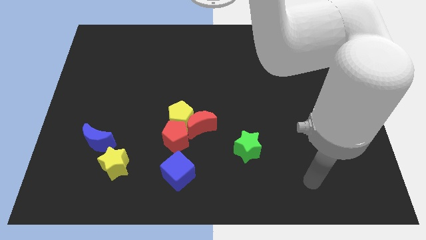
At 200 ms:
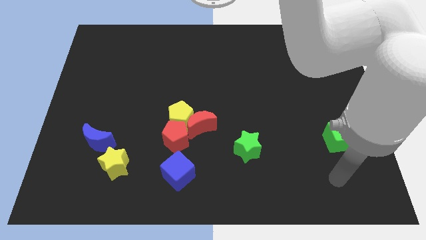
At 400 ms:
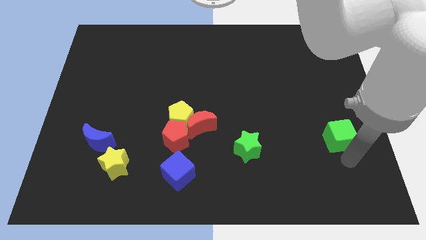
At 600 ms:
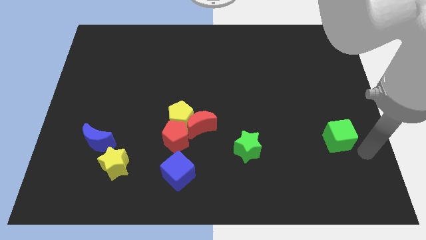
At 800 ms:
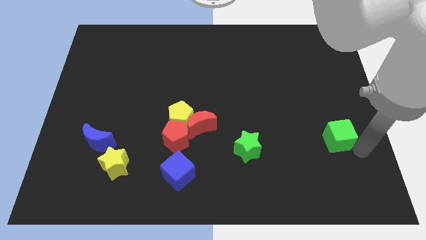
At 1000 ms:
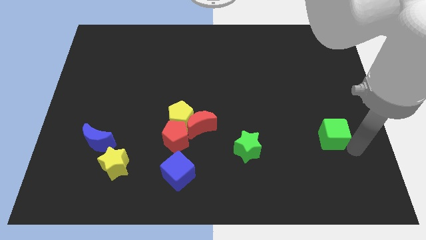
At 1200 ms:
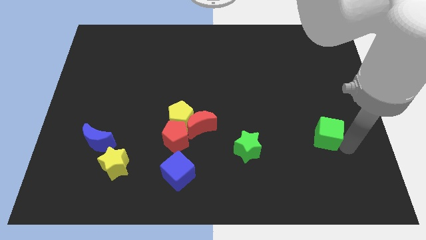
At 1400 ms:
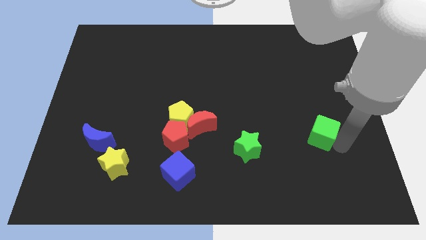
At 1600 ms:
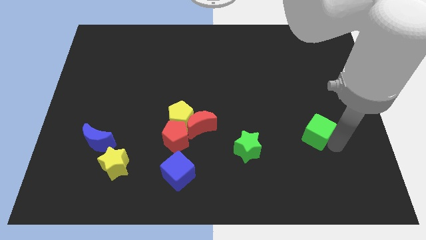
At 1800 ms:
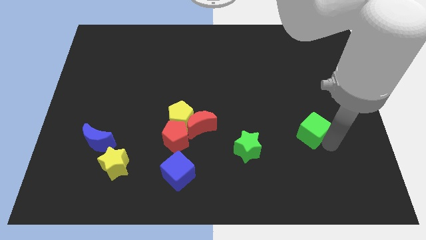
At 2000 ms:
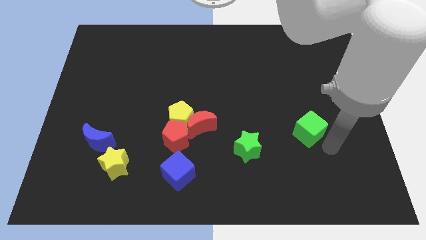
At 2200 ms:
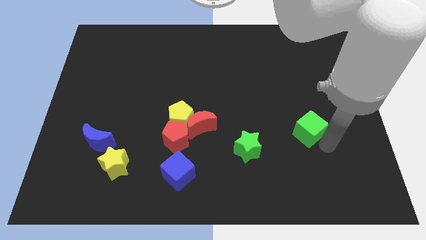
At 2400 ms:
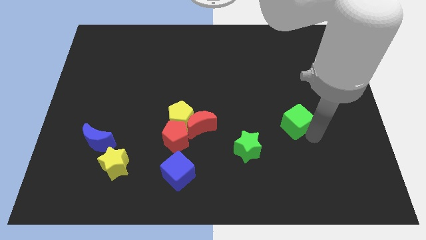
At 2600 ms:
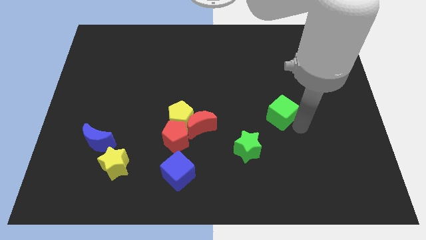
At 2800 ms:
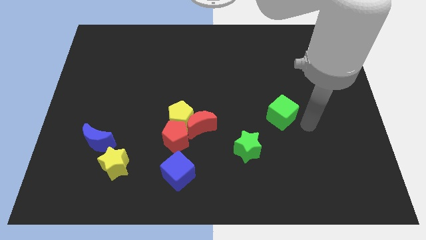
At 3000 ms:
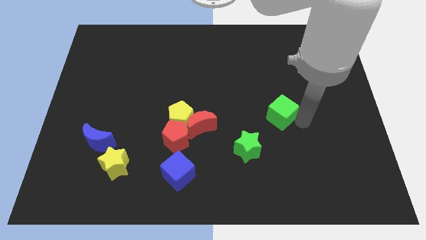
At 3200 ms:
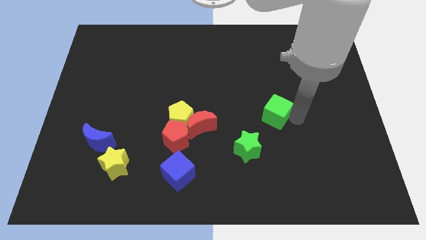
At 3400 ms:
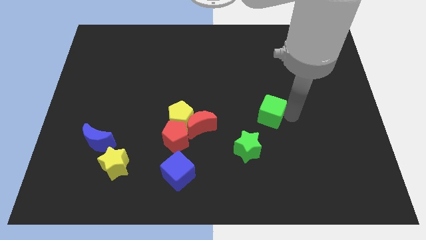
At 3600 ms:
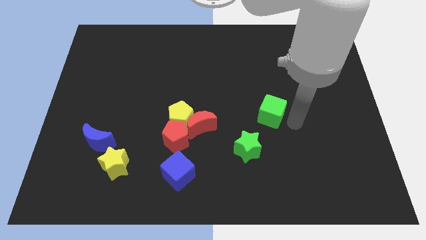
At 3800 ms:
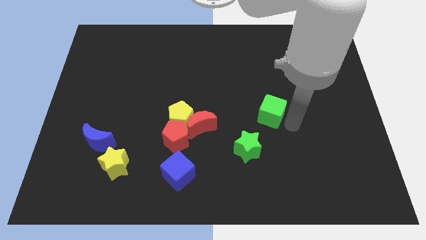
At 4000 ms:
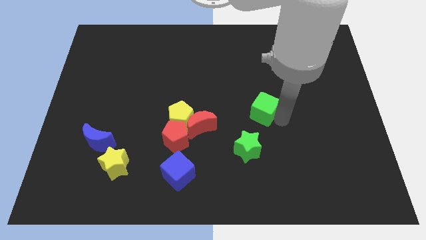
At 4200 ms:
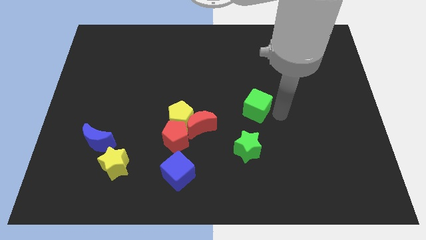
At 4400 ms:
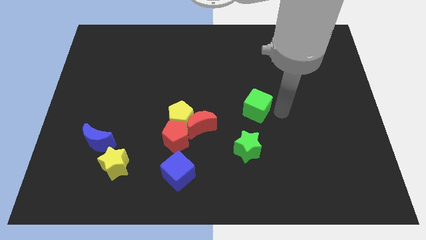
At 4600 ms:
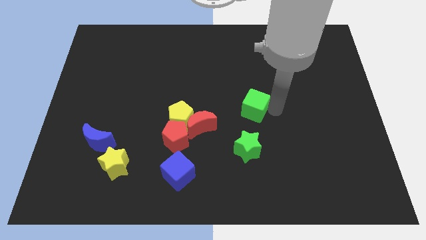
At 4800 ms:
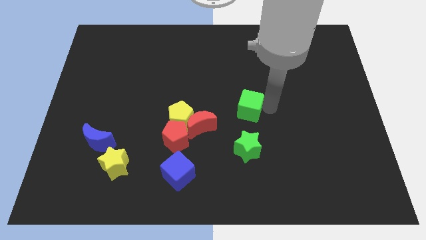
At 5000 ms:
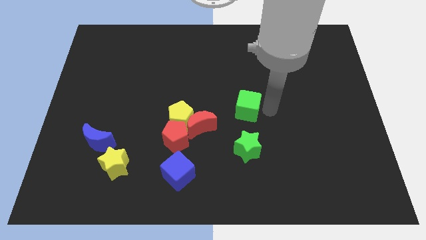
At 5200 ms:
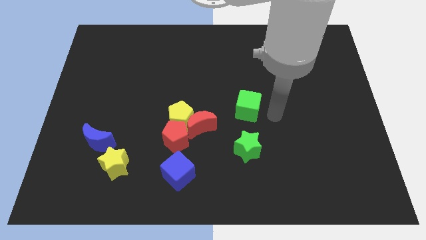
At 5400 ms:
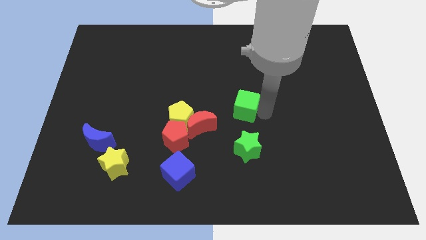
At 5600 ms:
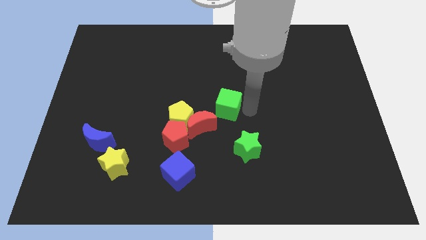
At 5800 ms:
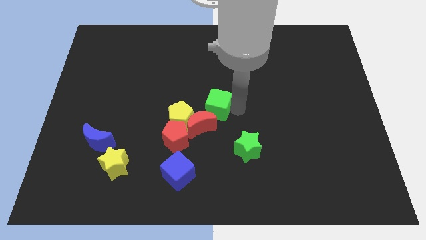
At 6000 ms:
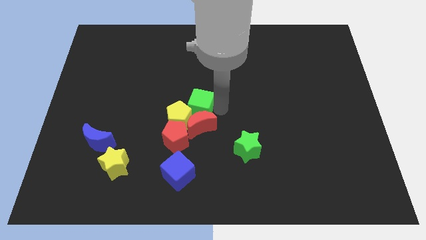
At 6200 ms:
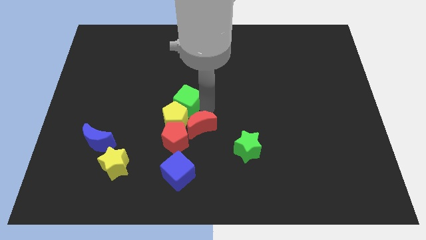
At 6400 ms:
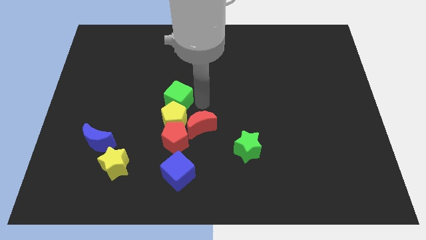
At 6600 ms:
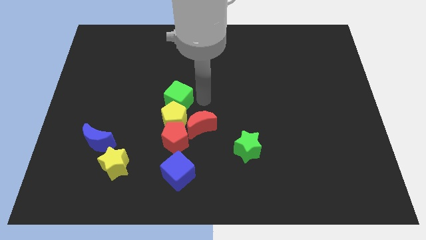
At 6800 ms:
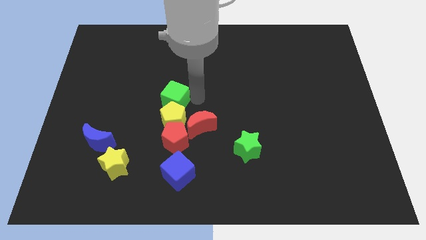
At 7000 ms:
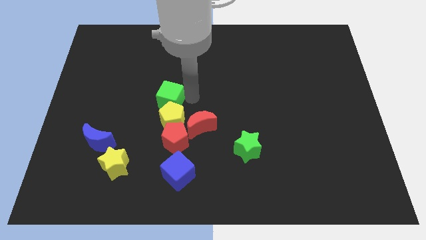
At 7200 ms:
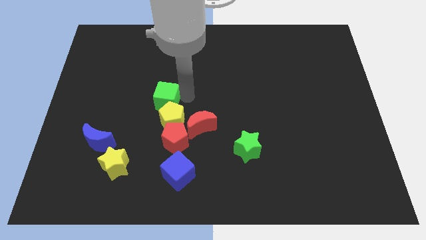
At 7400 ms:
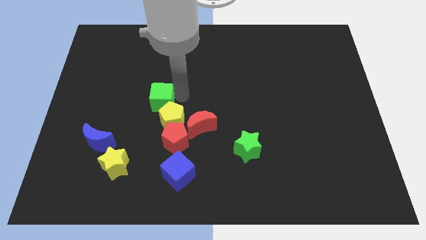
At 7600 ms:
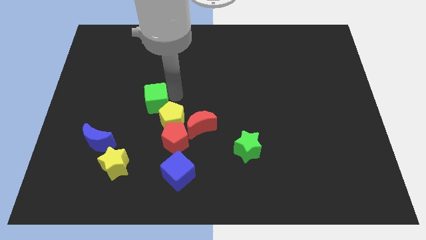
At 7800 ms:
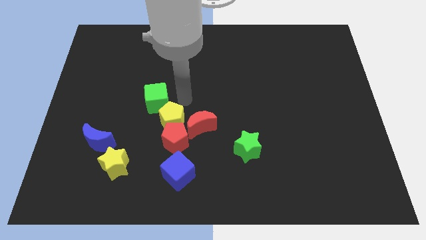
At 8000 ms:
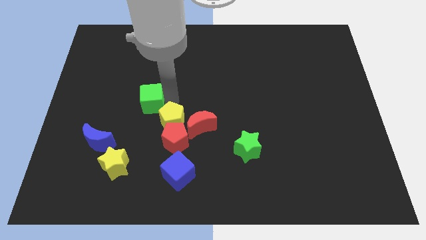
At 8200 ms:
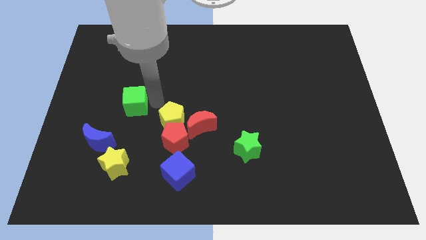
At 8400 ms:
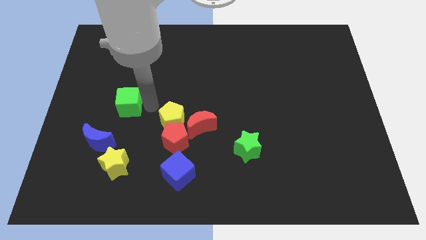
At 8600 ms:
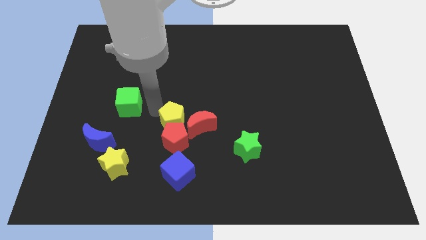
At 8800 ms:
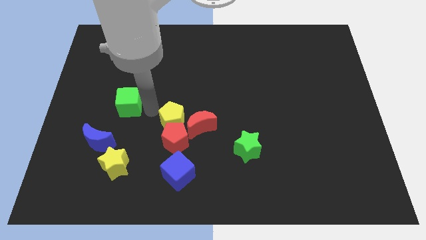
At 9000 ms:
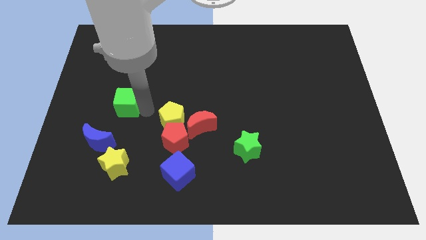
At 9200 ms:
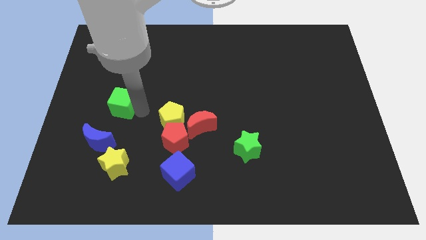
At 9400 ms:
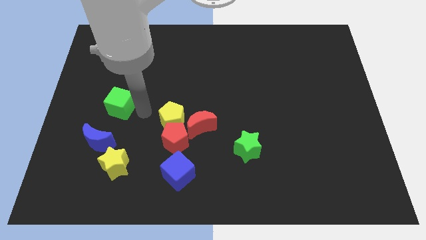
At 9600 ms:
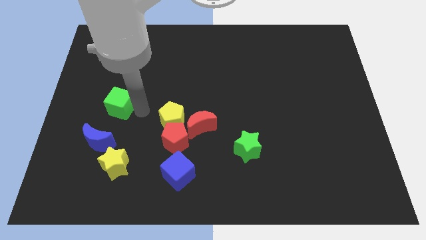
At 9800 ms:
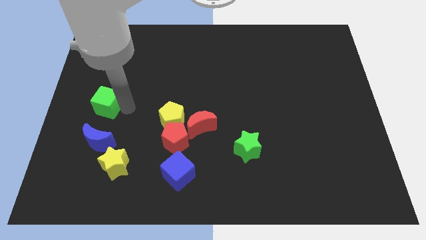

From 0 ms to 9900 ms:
put the green cube to the center left

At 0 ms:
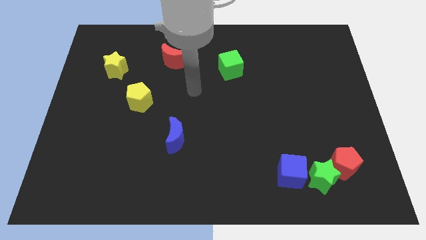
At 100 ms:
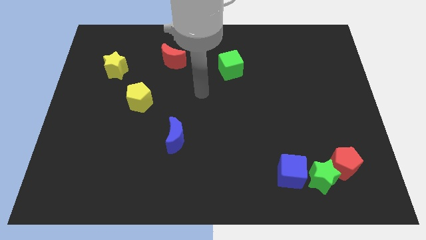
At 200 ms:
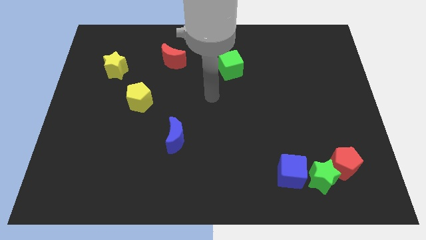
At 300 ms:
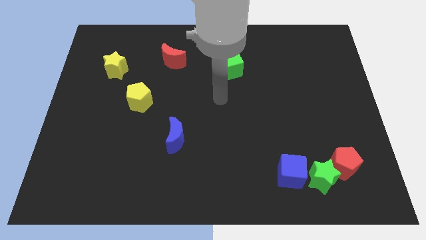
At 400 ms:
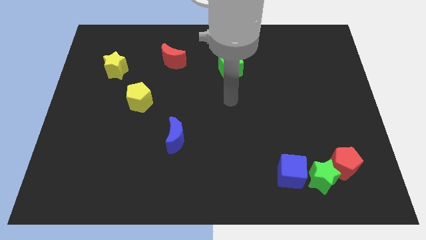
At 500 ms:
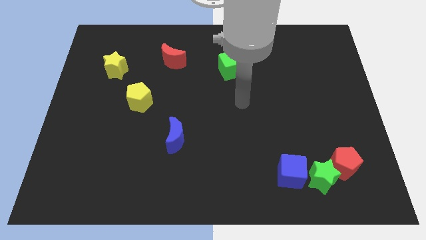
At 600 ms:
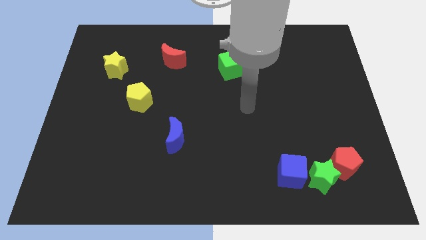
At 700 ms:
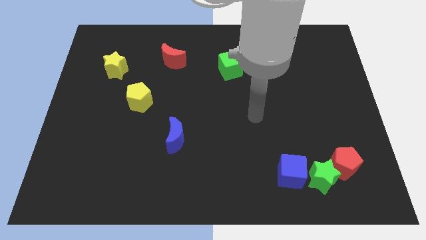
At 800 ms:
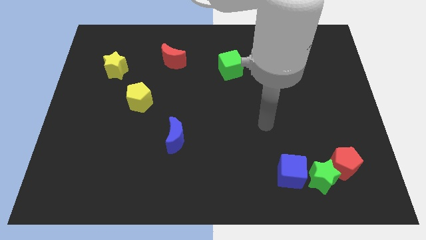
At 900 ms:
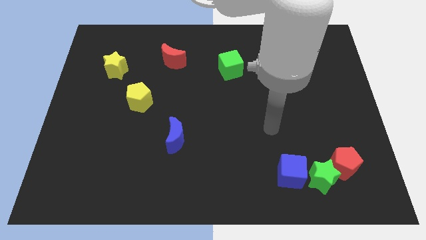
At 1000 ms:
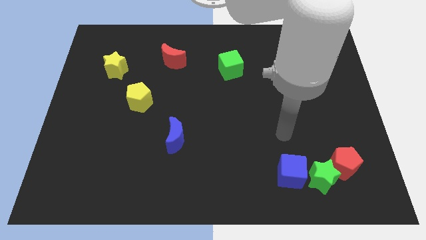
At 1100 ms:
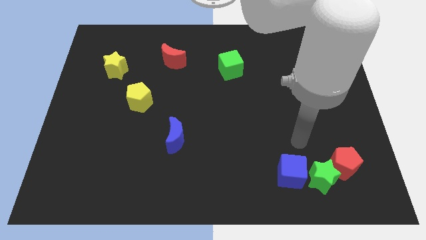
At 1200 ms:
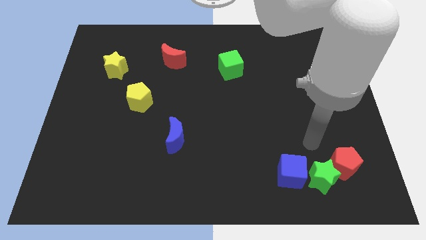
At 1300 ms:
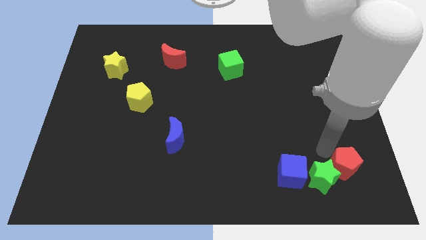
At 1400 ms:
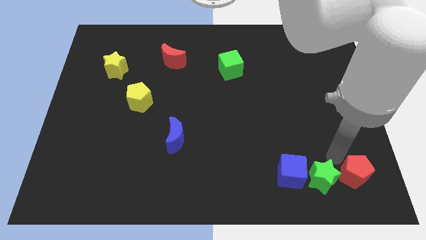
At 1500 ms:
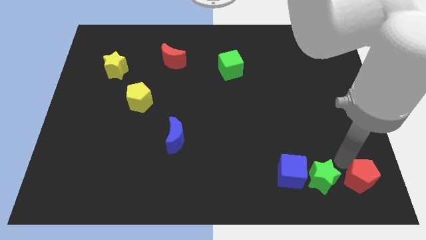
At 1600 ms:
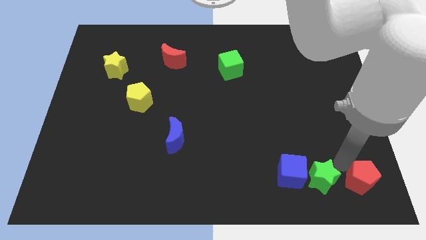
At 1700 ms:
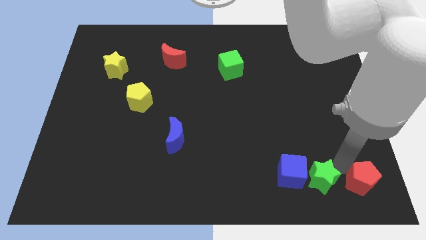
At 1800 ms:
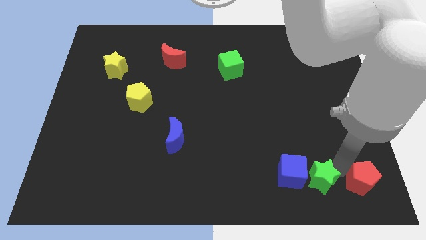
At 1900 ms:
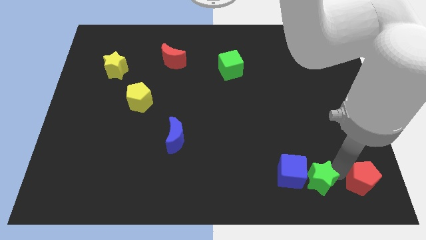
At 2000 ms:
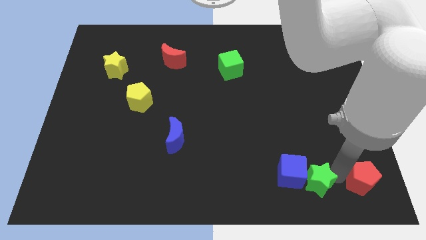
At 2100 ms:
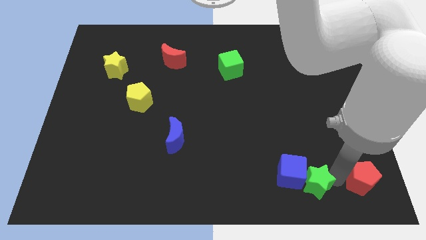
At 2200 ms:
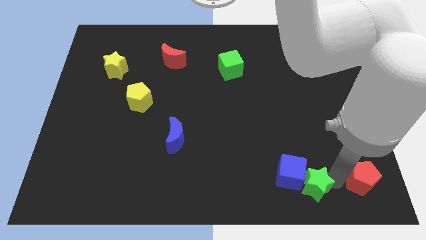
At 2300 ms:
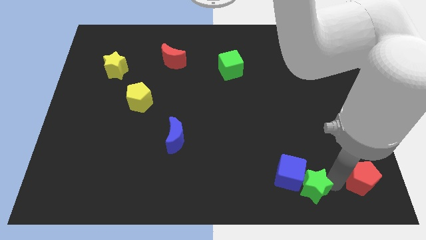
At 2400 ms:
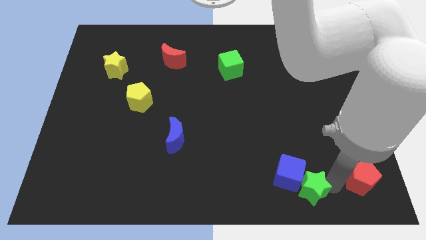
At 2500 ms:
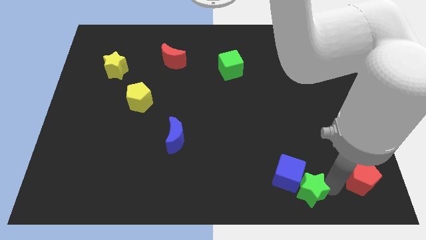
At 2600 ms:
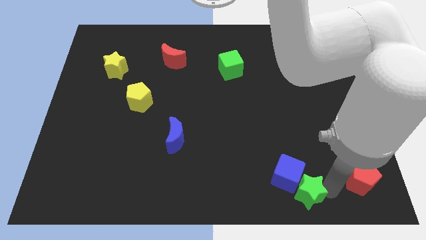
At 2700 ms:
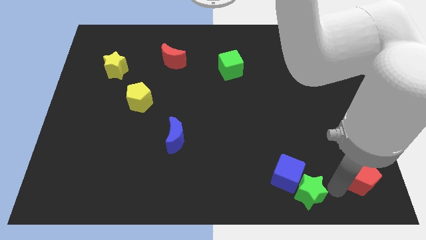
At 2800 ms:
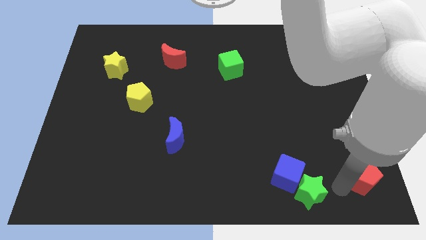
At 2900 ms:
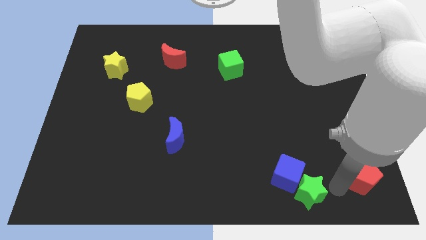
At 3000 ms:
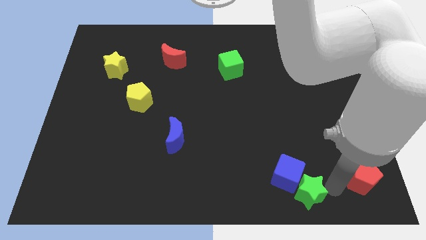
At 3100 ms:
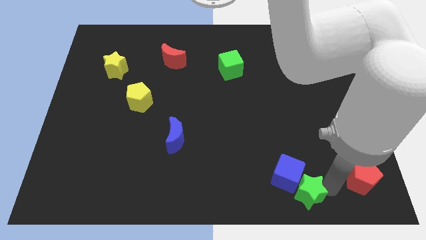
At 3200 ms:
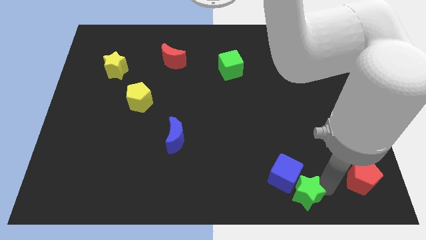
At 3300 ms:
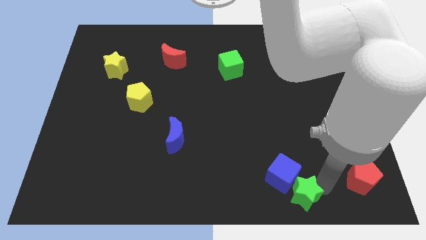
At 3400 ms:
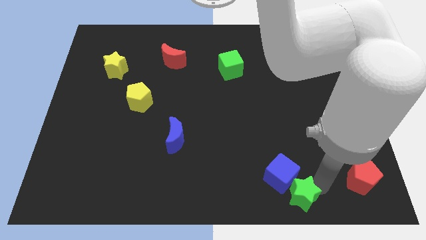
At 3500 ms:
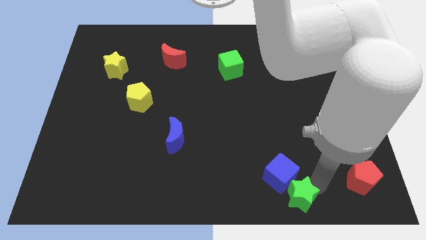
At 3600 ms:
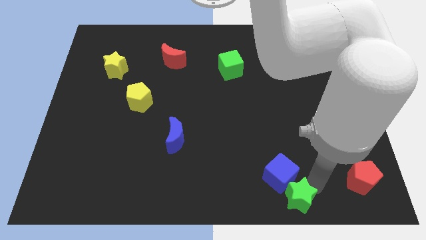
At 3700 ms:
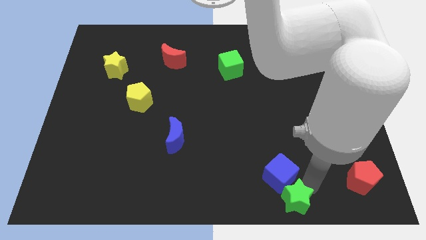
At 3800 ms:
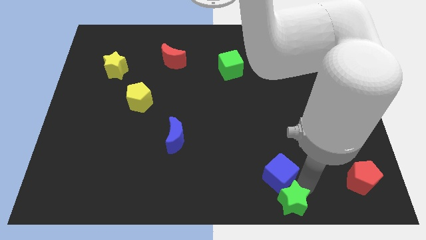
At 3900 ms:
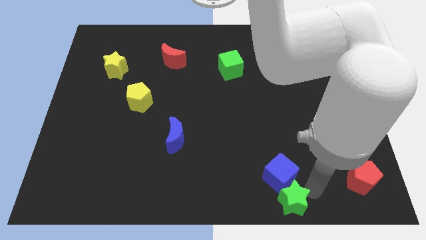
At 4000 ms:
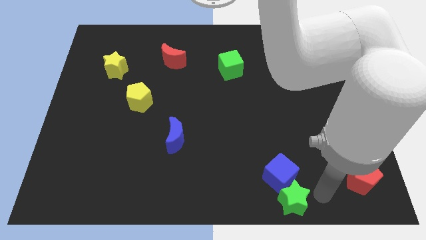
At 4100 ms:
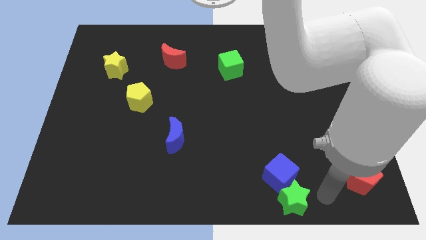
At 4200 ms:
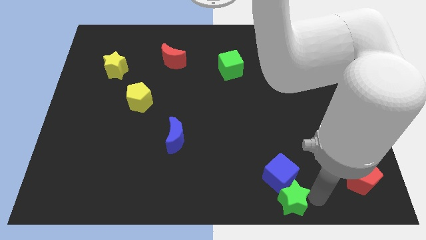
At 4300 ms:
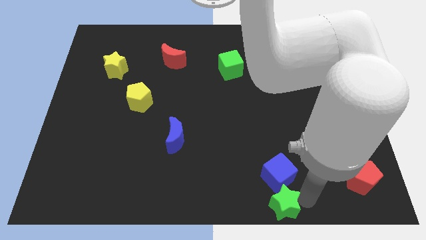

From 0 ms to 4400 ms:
slide the green star to the bottom
